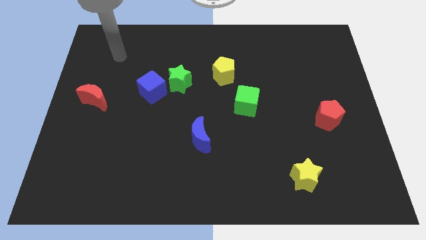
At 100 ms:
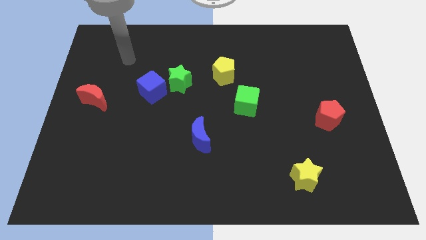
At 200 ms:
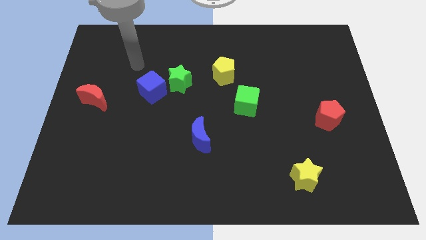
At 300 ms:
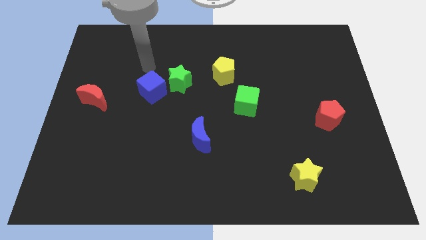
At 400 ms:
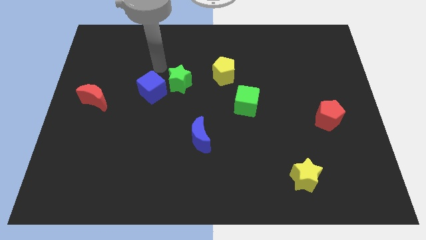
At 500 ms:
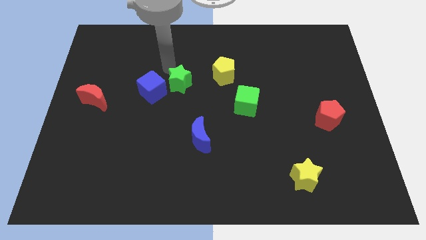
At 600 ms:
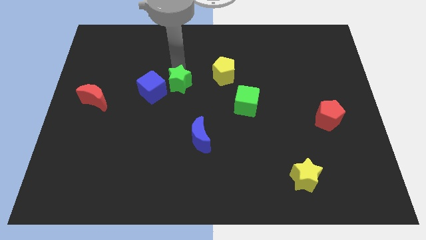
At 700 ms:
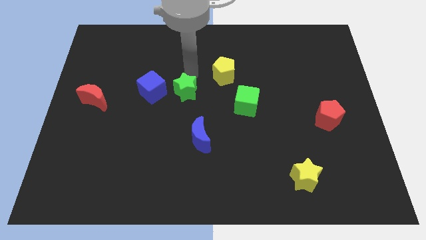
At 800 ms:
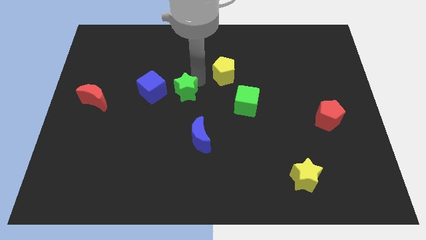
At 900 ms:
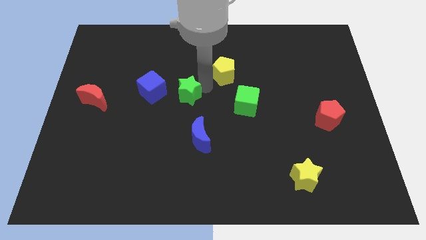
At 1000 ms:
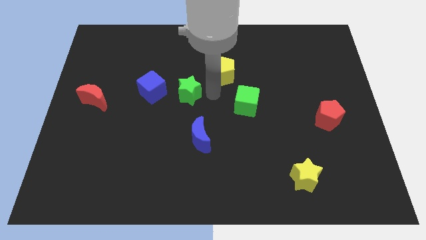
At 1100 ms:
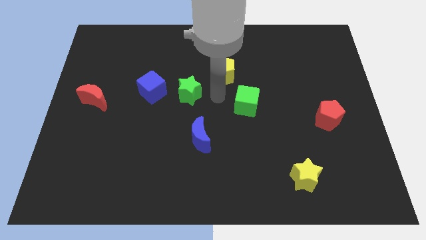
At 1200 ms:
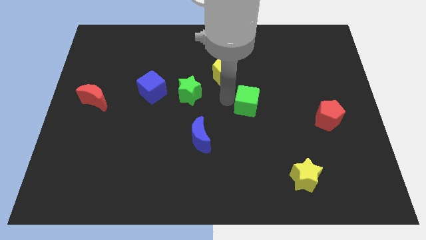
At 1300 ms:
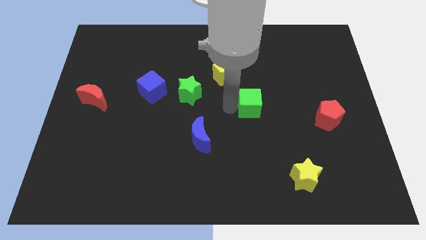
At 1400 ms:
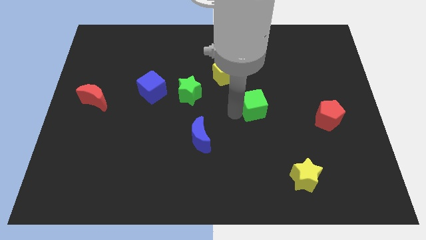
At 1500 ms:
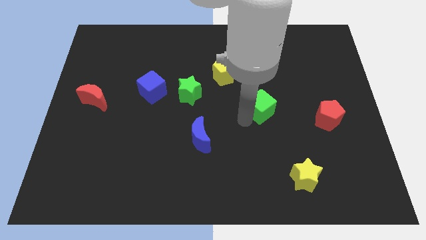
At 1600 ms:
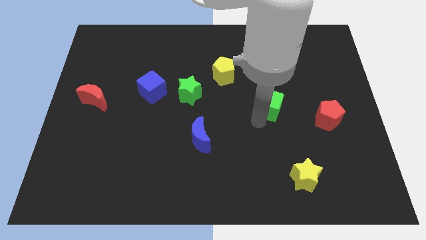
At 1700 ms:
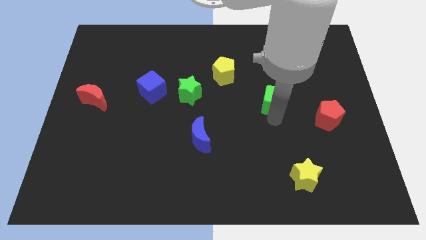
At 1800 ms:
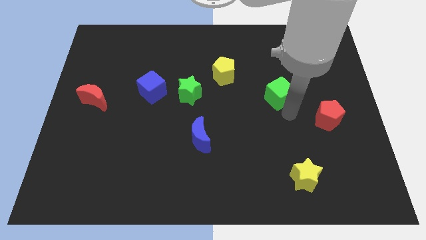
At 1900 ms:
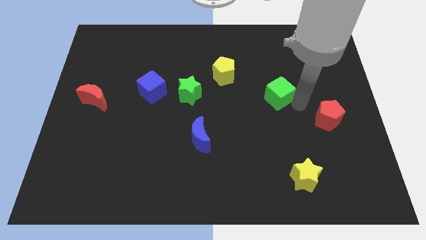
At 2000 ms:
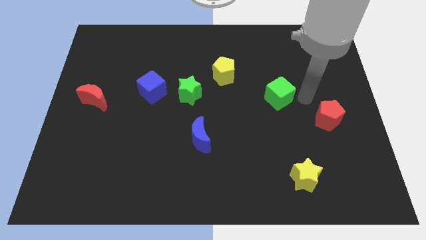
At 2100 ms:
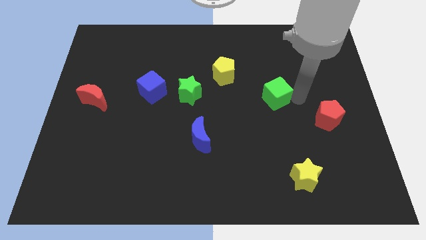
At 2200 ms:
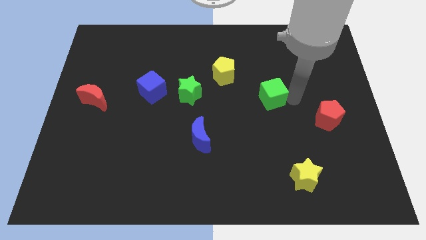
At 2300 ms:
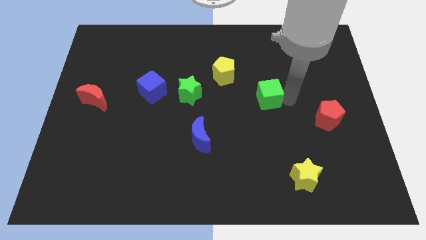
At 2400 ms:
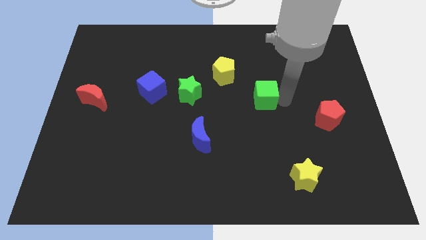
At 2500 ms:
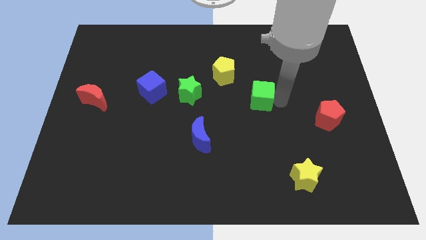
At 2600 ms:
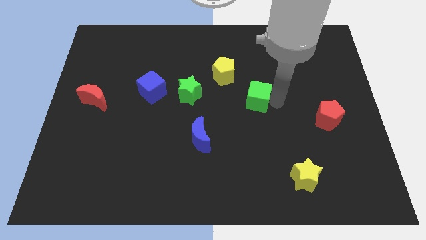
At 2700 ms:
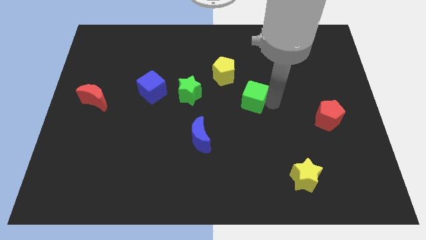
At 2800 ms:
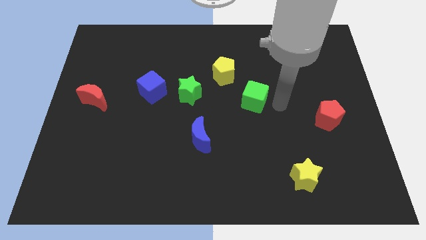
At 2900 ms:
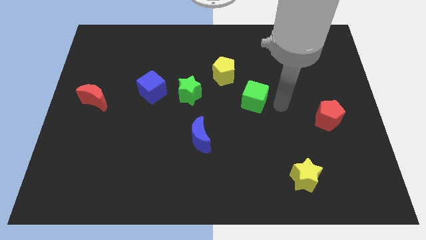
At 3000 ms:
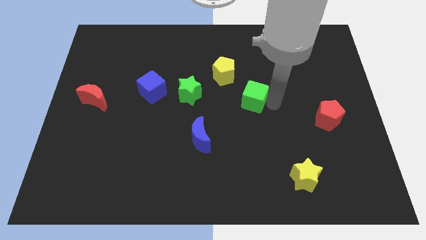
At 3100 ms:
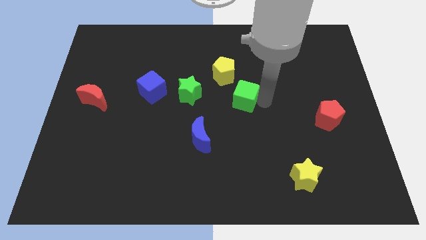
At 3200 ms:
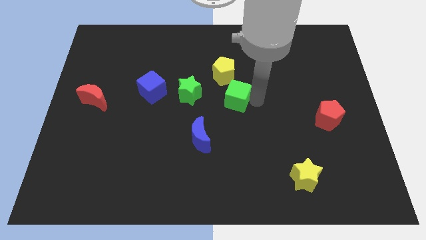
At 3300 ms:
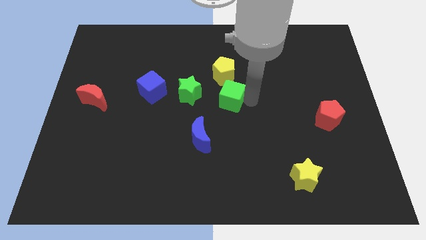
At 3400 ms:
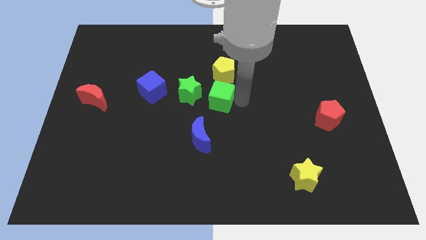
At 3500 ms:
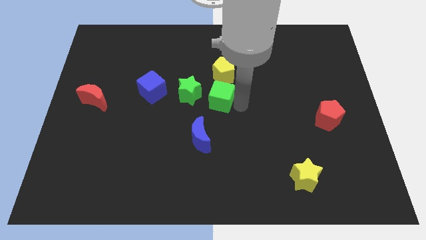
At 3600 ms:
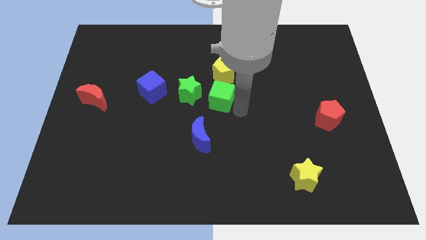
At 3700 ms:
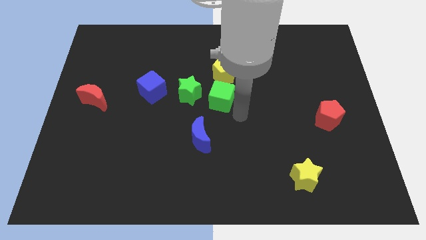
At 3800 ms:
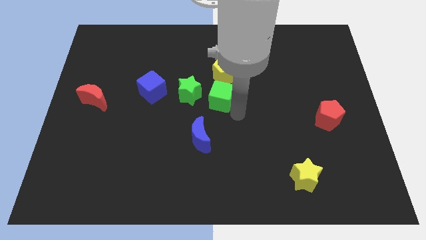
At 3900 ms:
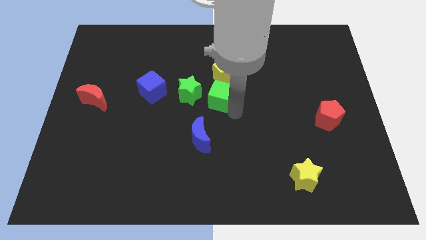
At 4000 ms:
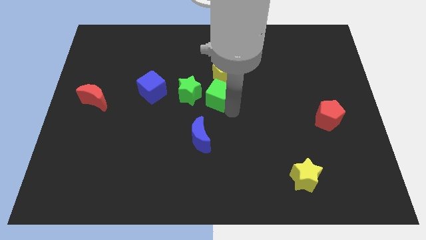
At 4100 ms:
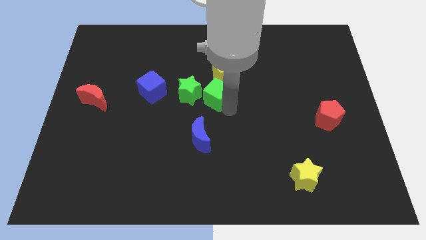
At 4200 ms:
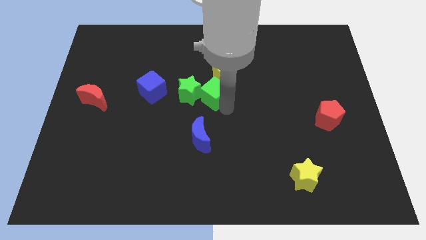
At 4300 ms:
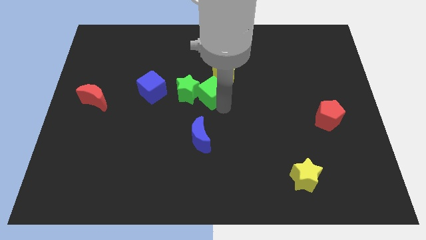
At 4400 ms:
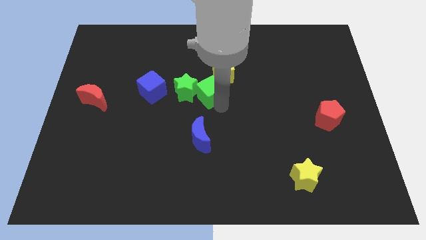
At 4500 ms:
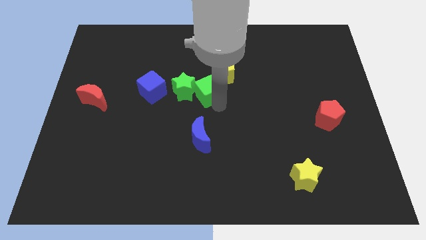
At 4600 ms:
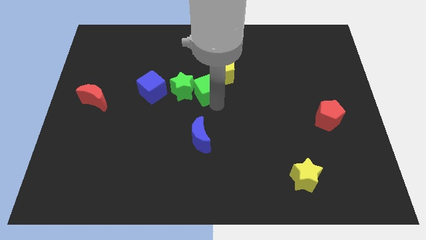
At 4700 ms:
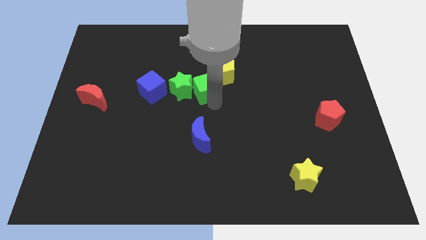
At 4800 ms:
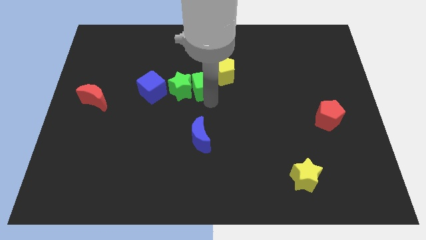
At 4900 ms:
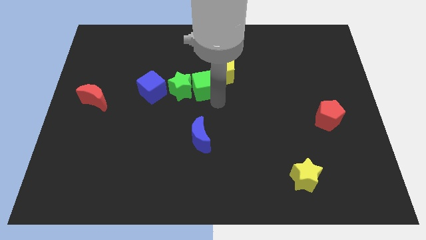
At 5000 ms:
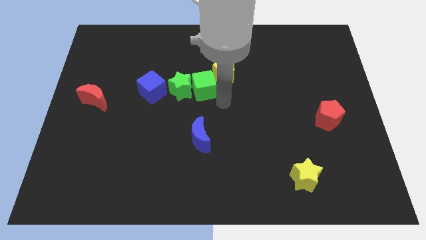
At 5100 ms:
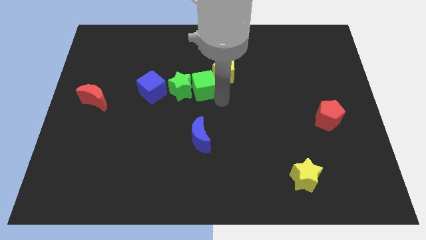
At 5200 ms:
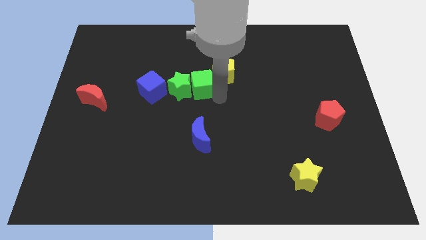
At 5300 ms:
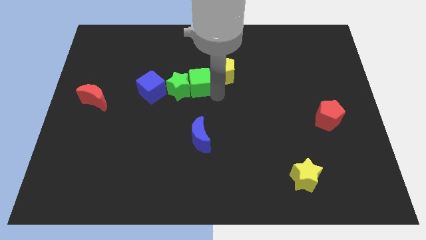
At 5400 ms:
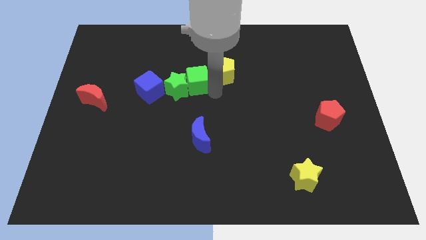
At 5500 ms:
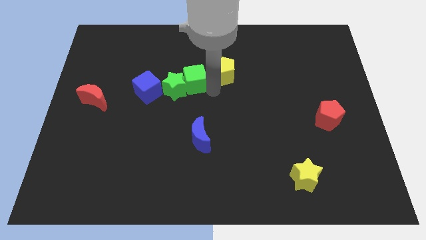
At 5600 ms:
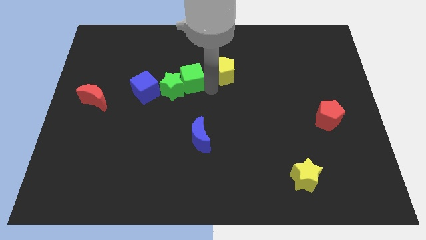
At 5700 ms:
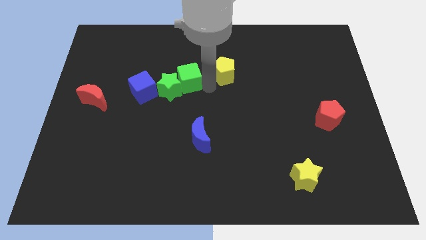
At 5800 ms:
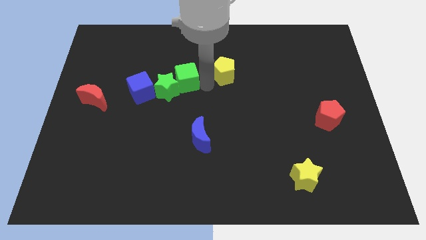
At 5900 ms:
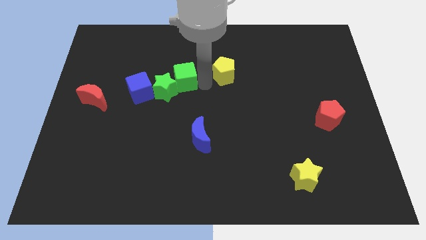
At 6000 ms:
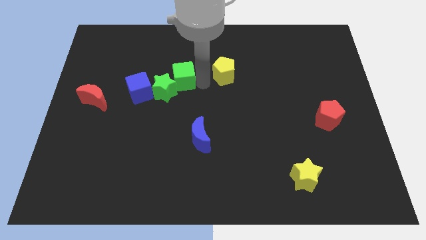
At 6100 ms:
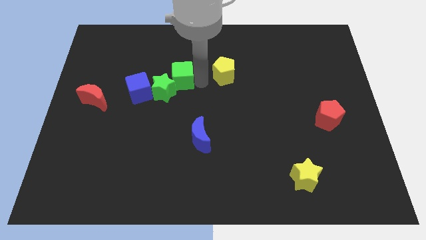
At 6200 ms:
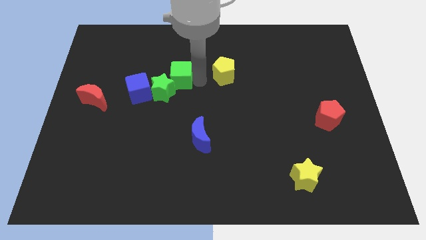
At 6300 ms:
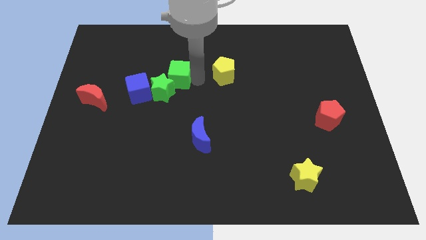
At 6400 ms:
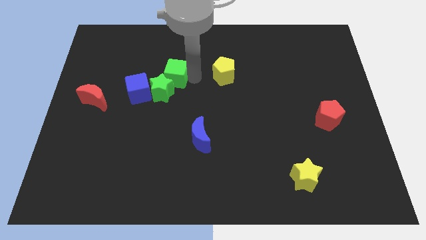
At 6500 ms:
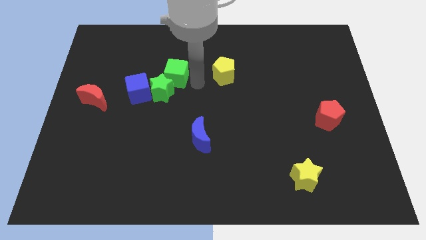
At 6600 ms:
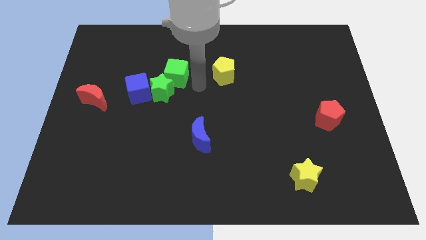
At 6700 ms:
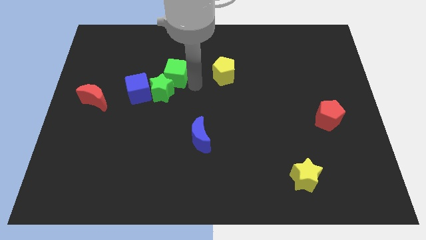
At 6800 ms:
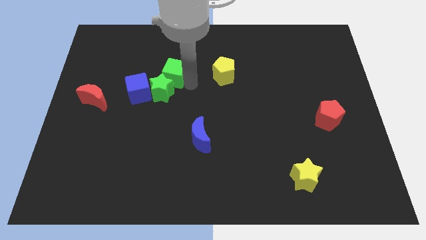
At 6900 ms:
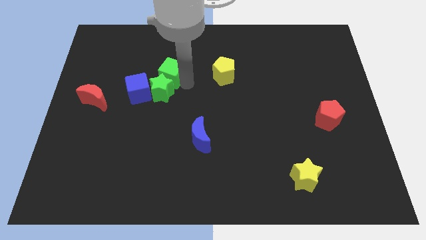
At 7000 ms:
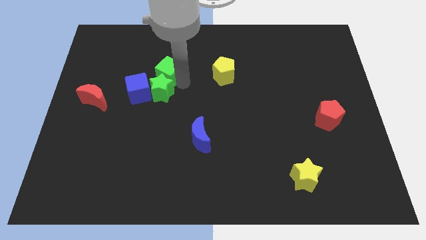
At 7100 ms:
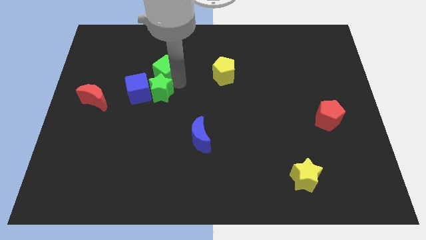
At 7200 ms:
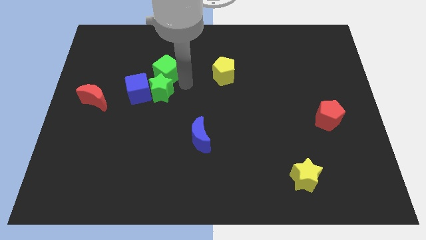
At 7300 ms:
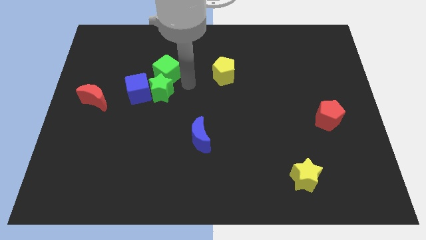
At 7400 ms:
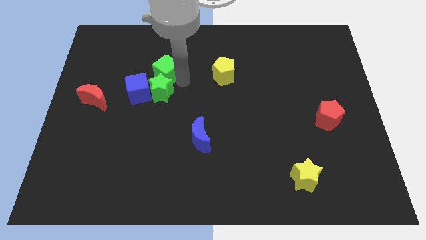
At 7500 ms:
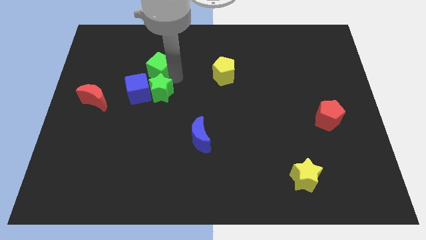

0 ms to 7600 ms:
put the green cube to the top of the blue cube
